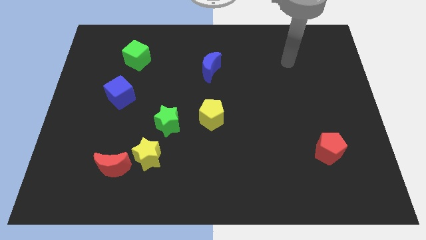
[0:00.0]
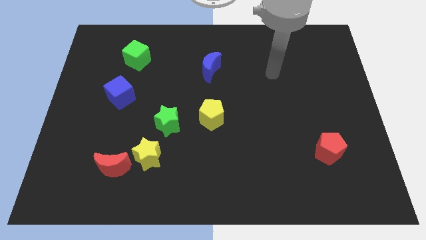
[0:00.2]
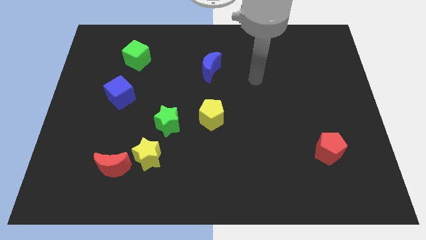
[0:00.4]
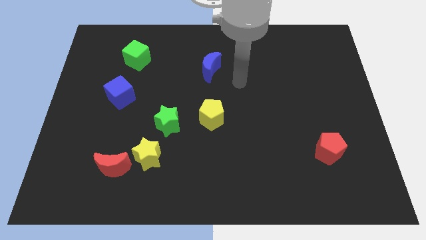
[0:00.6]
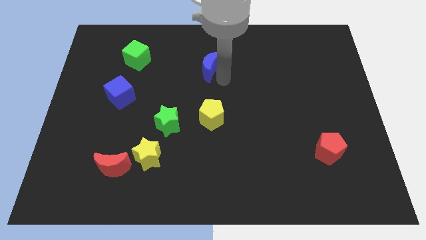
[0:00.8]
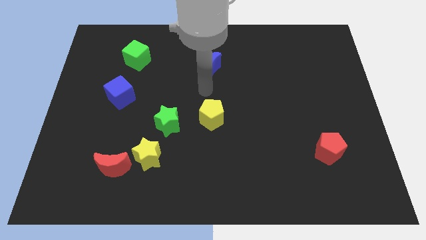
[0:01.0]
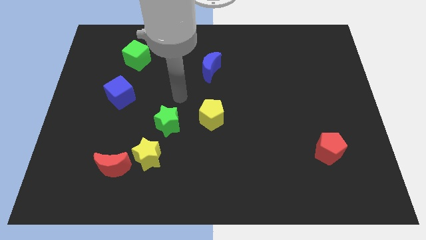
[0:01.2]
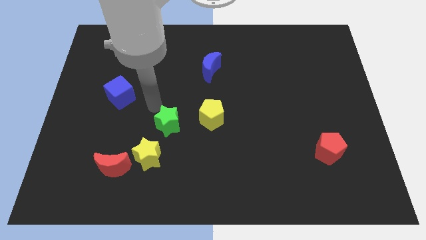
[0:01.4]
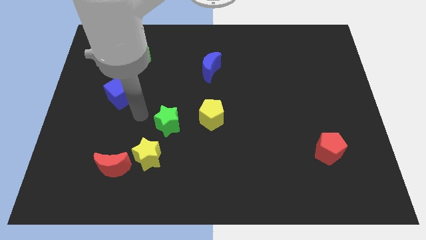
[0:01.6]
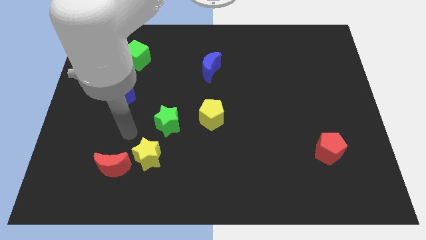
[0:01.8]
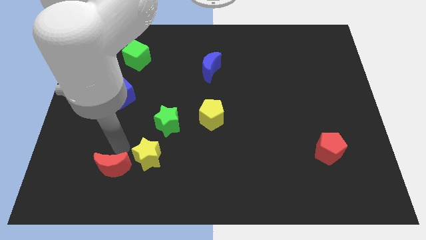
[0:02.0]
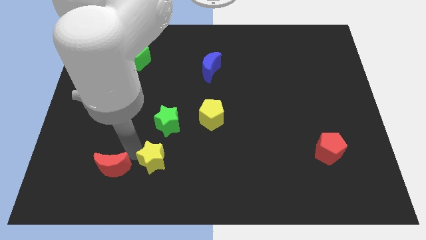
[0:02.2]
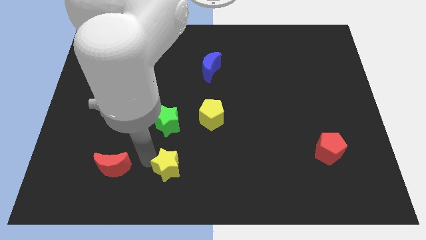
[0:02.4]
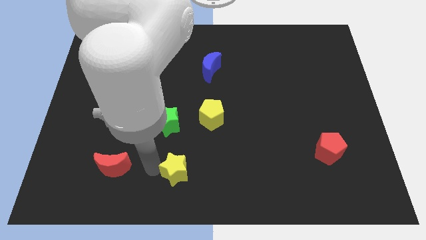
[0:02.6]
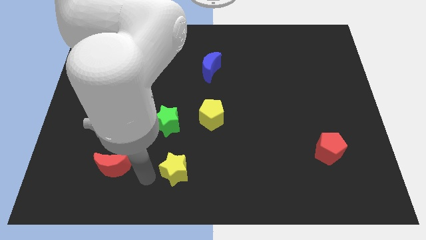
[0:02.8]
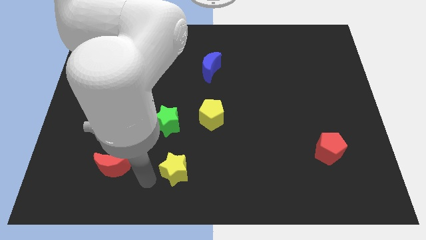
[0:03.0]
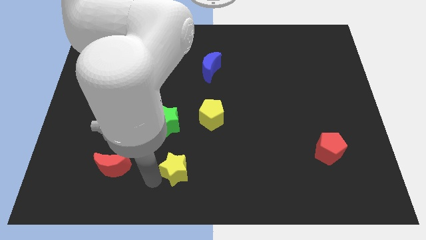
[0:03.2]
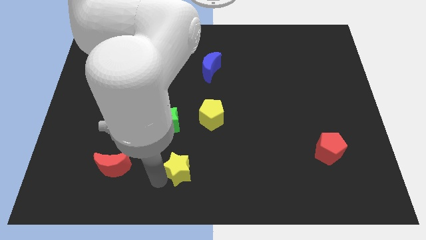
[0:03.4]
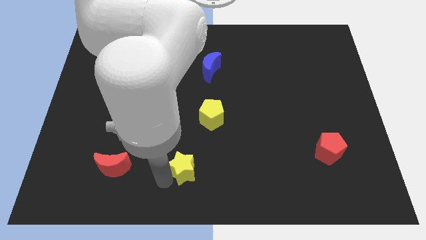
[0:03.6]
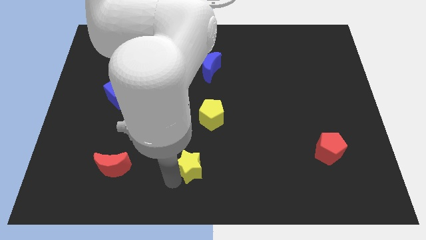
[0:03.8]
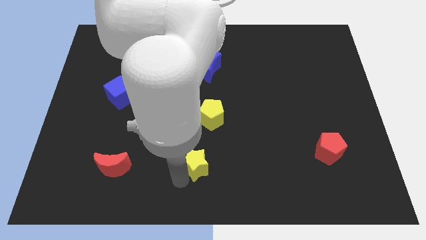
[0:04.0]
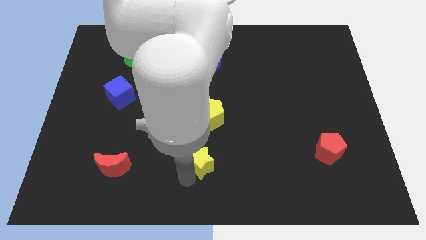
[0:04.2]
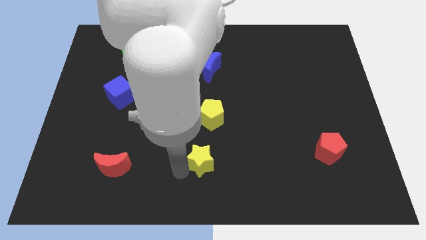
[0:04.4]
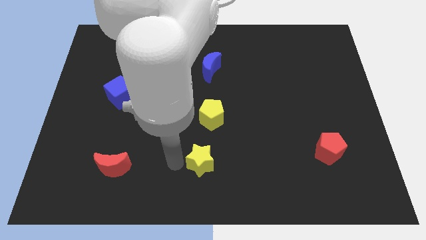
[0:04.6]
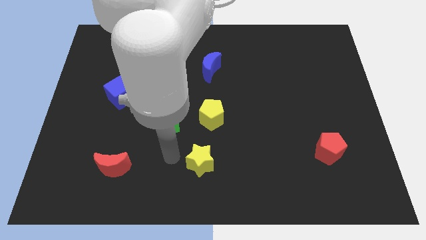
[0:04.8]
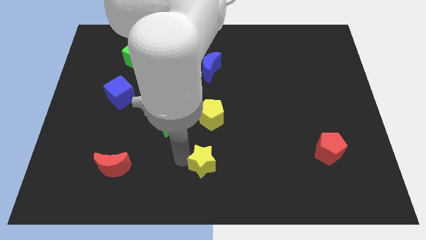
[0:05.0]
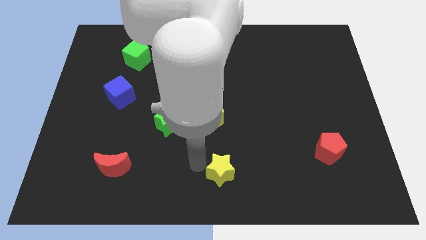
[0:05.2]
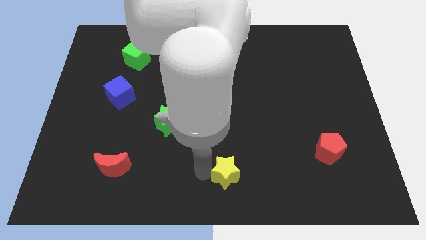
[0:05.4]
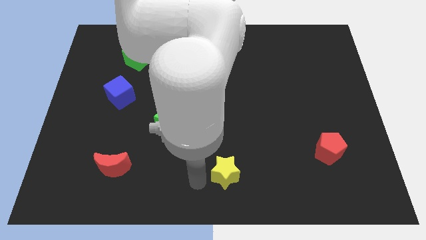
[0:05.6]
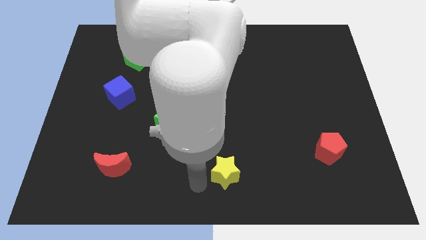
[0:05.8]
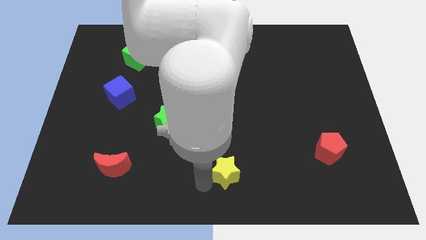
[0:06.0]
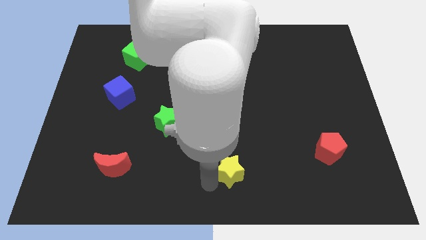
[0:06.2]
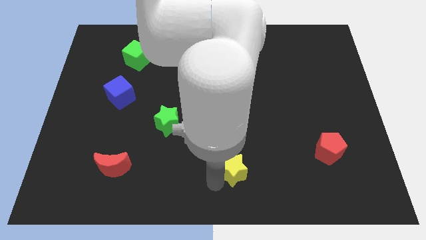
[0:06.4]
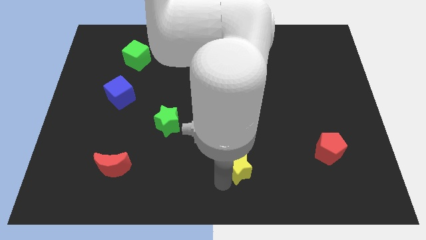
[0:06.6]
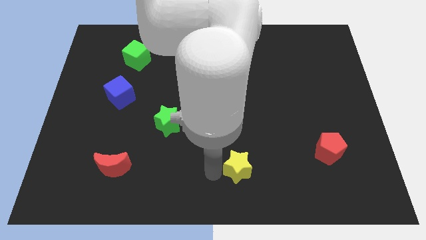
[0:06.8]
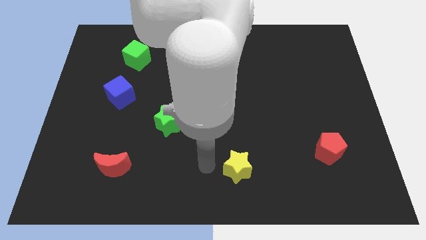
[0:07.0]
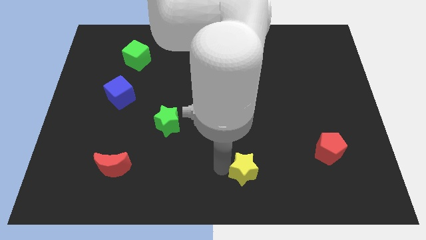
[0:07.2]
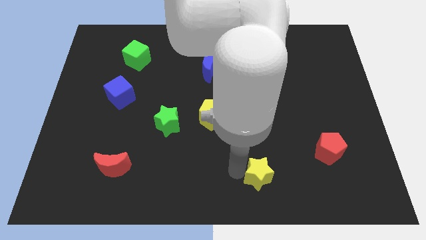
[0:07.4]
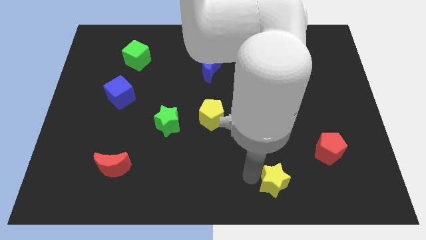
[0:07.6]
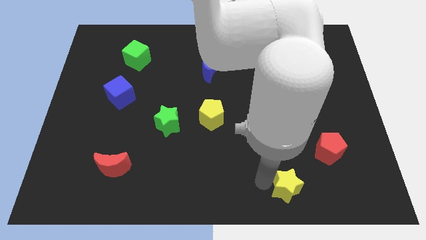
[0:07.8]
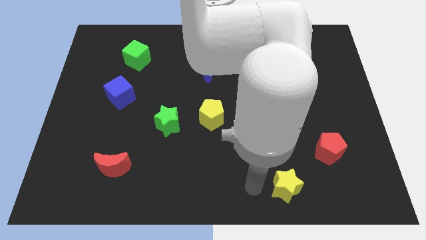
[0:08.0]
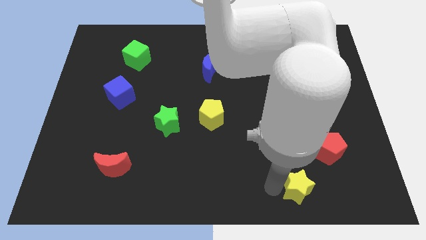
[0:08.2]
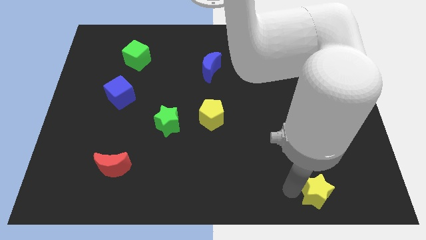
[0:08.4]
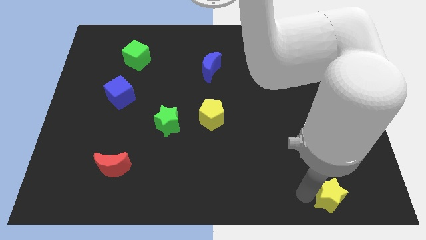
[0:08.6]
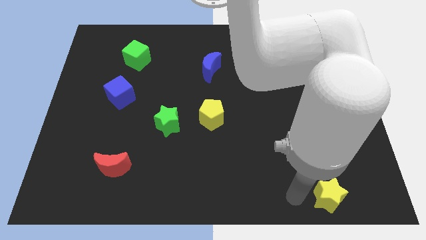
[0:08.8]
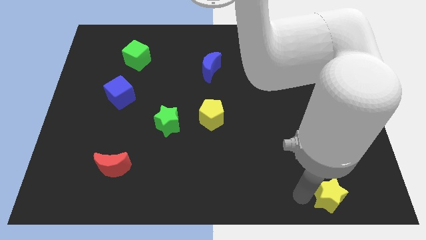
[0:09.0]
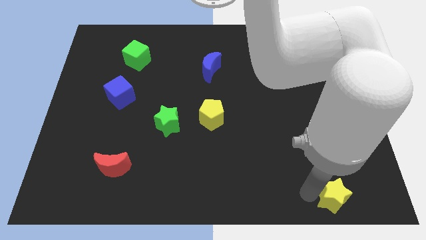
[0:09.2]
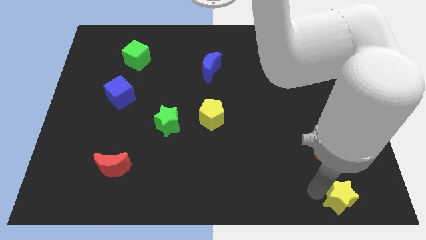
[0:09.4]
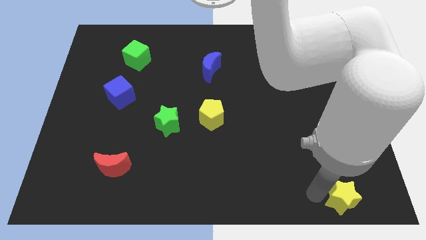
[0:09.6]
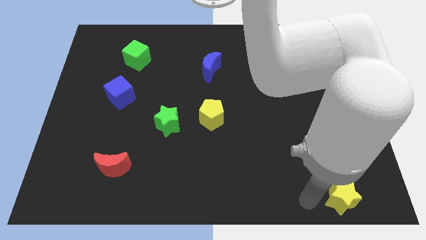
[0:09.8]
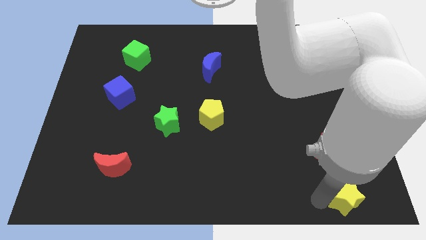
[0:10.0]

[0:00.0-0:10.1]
move the yellow star to the bottom right corner

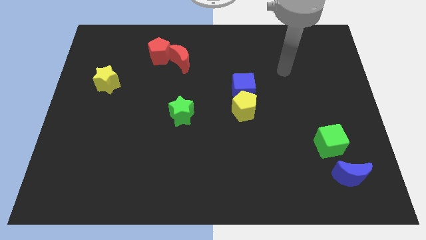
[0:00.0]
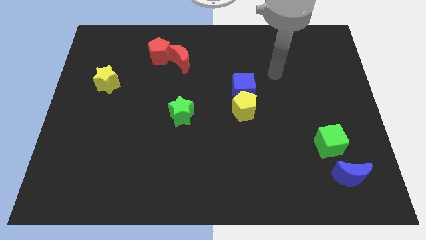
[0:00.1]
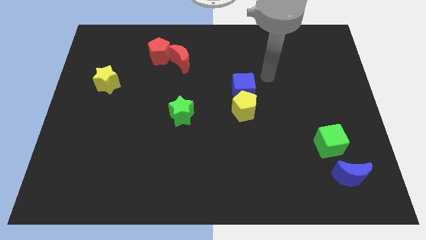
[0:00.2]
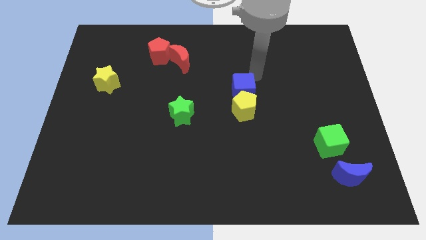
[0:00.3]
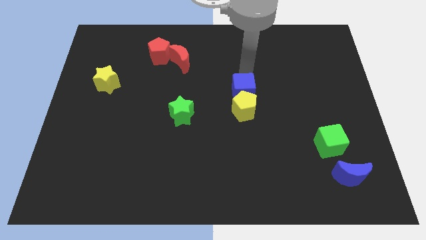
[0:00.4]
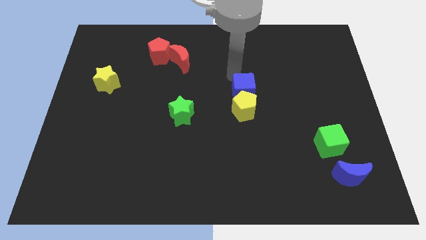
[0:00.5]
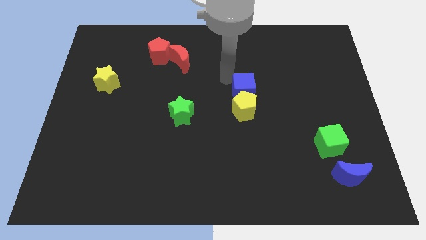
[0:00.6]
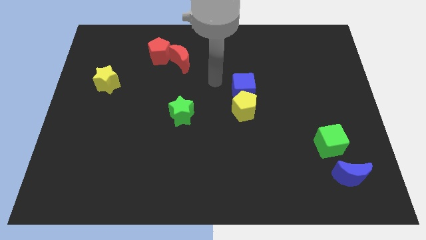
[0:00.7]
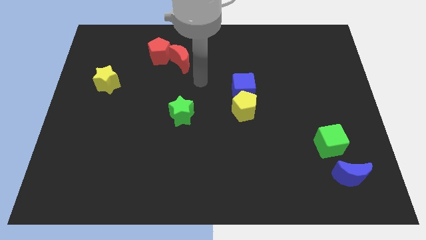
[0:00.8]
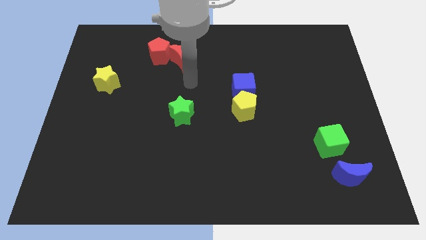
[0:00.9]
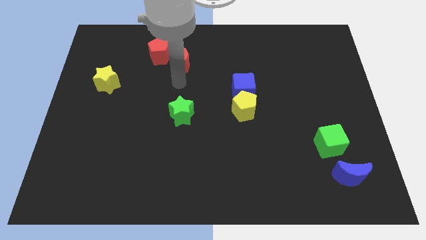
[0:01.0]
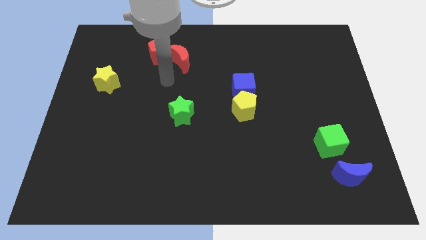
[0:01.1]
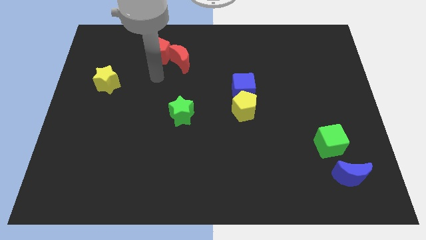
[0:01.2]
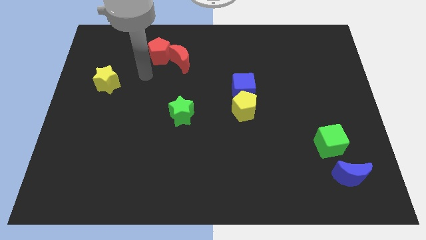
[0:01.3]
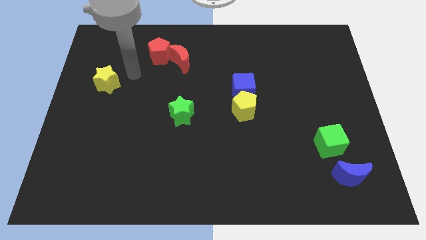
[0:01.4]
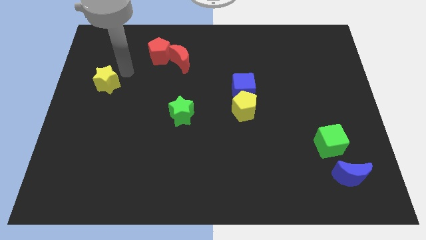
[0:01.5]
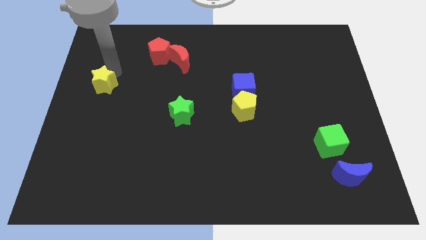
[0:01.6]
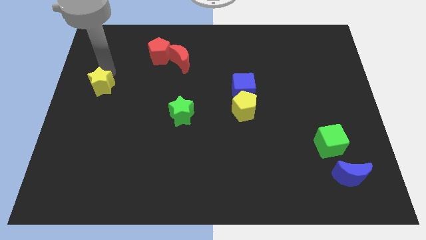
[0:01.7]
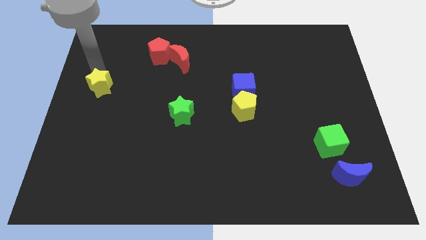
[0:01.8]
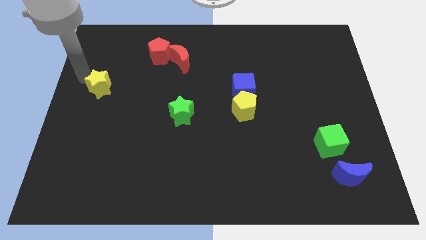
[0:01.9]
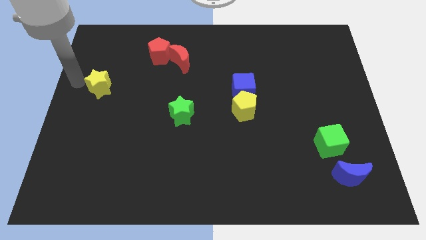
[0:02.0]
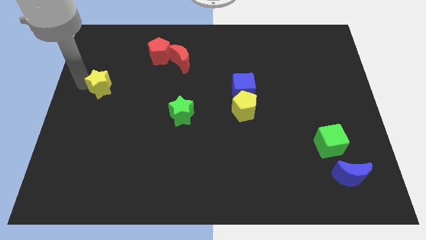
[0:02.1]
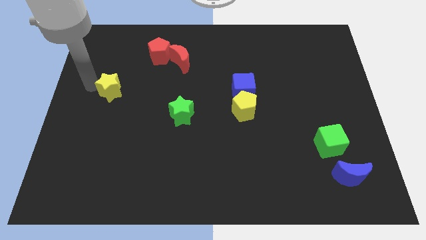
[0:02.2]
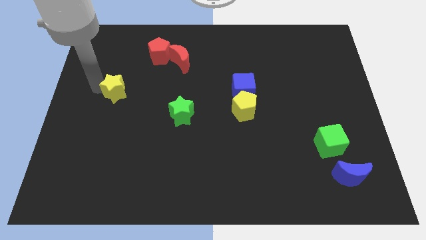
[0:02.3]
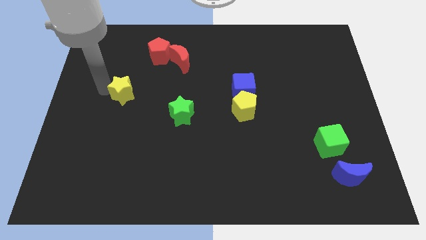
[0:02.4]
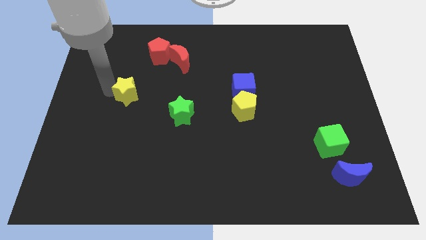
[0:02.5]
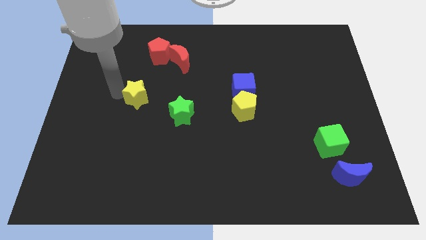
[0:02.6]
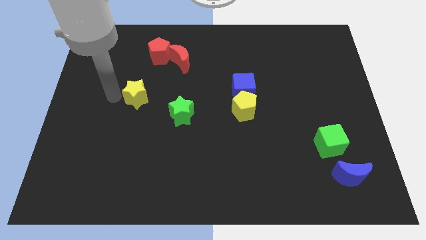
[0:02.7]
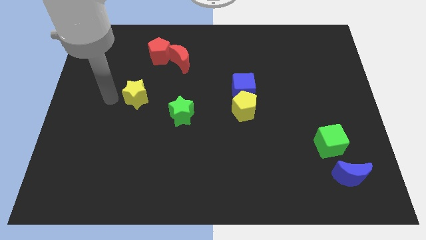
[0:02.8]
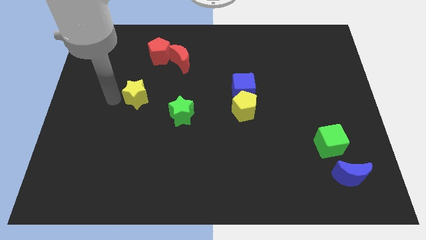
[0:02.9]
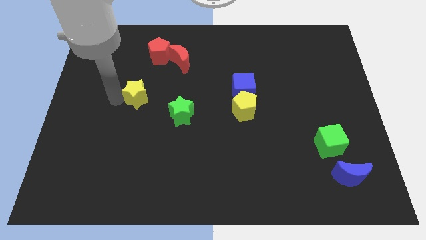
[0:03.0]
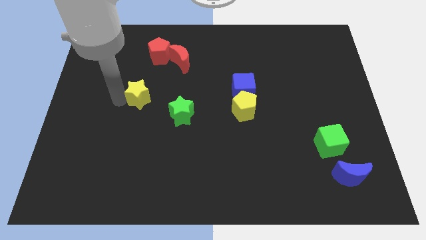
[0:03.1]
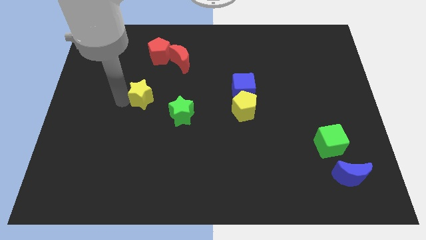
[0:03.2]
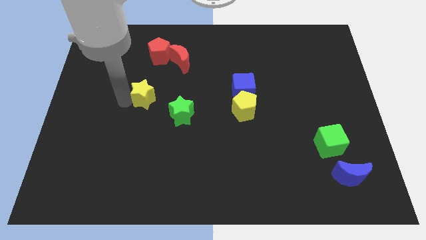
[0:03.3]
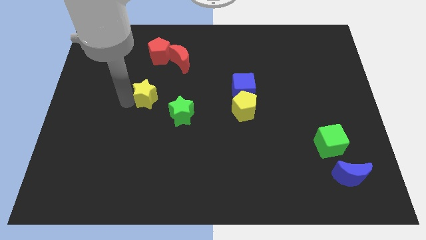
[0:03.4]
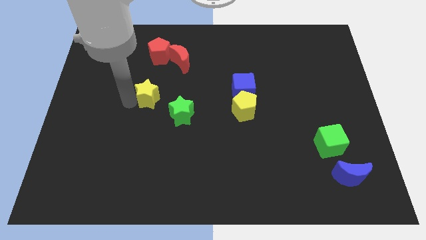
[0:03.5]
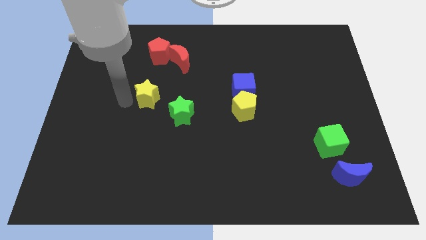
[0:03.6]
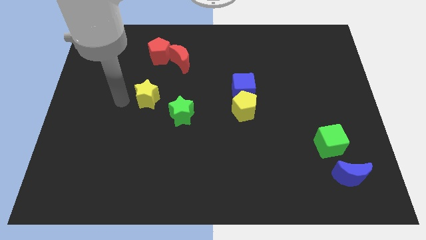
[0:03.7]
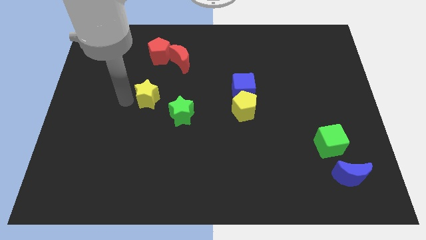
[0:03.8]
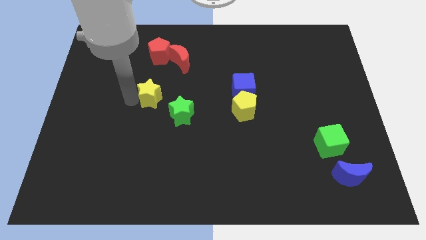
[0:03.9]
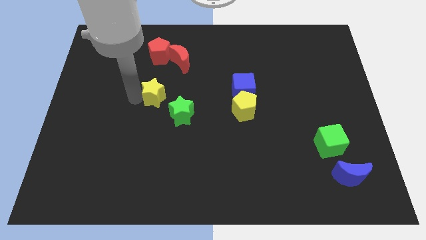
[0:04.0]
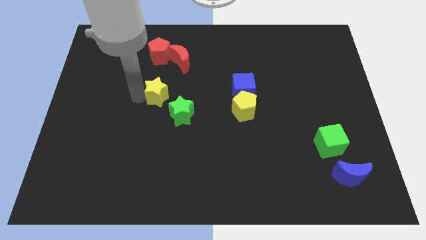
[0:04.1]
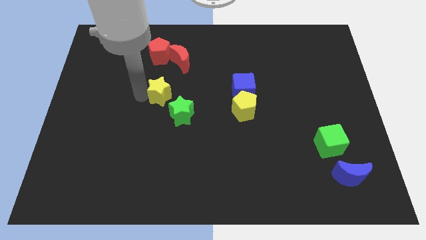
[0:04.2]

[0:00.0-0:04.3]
move the yellow star to the middle
